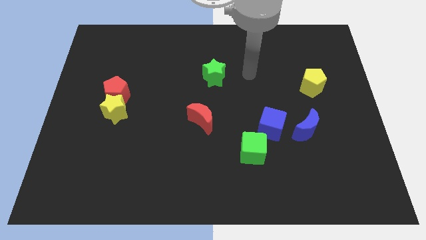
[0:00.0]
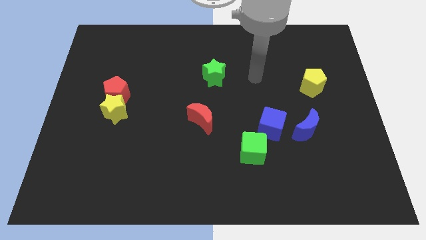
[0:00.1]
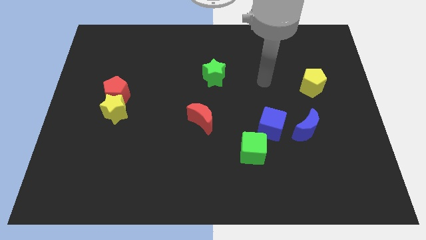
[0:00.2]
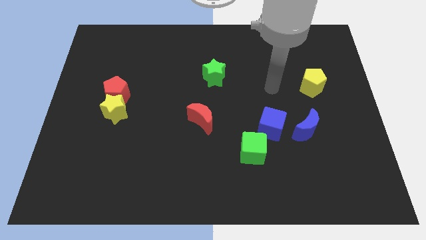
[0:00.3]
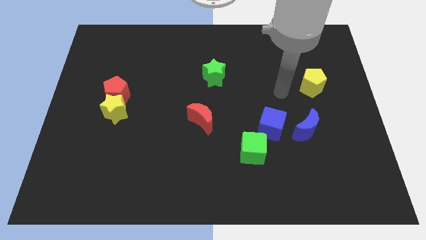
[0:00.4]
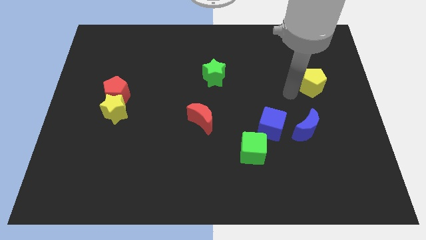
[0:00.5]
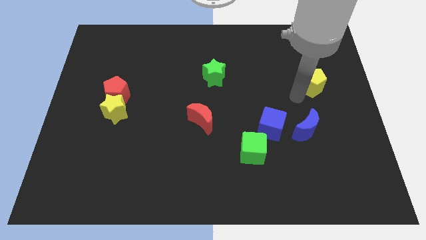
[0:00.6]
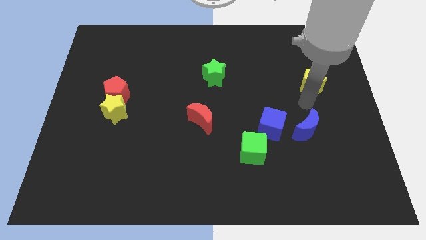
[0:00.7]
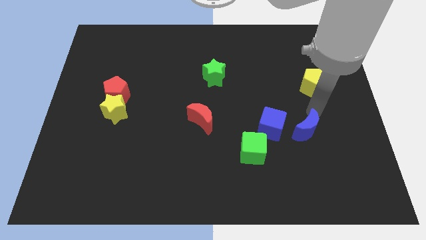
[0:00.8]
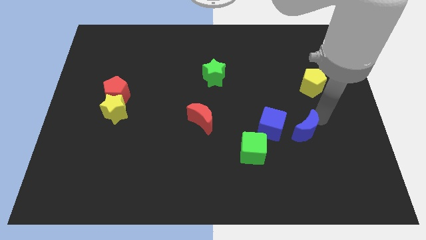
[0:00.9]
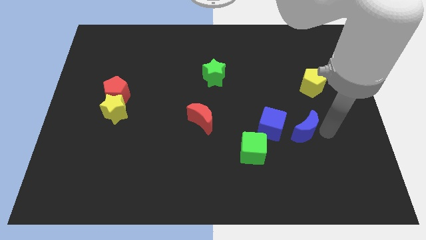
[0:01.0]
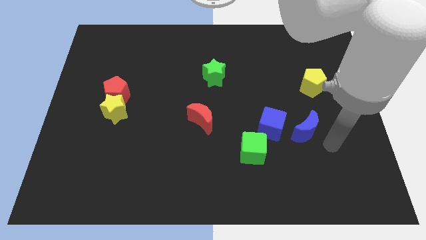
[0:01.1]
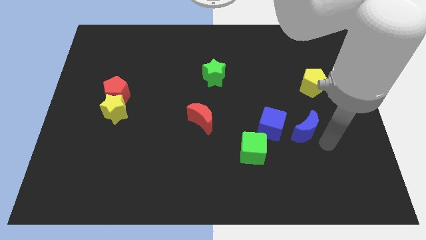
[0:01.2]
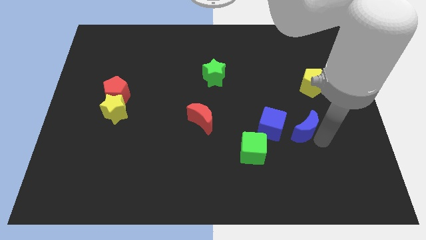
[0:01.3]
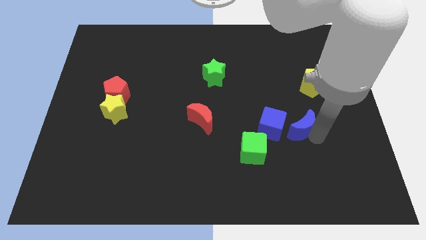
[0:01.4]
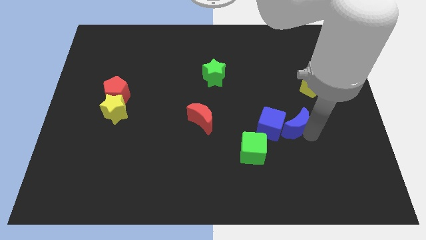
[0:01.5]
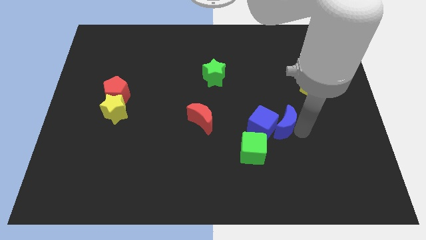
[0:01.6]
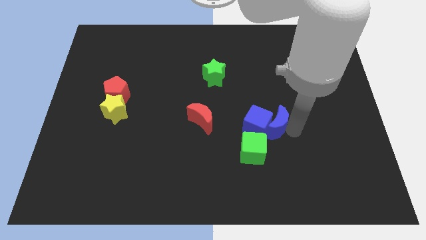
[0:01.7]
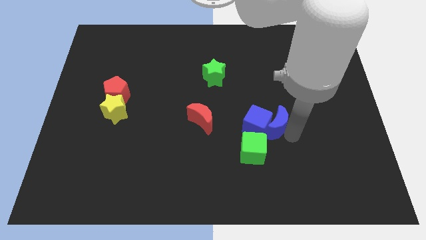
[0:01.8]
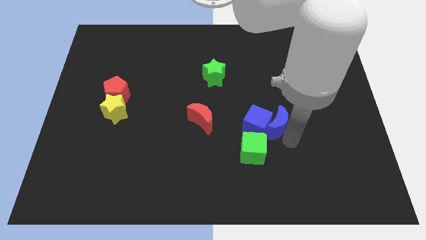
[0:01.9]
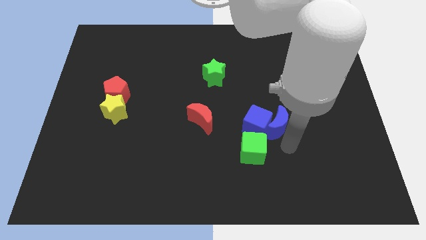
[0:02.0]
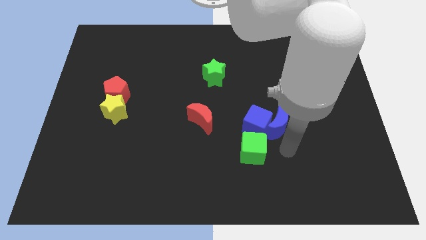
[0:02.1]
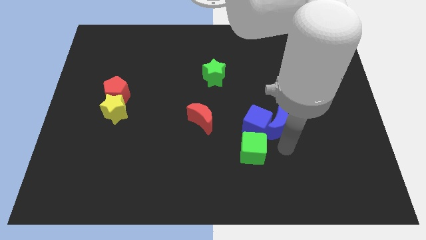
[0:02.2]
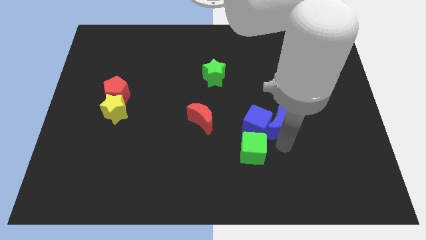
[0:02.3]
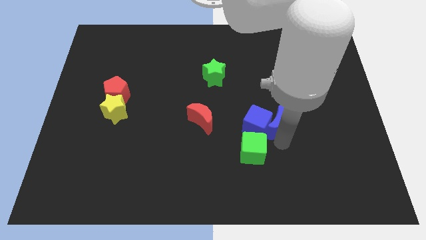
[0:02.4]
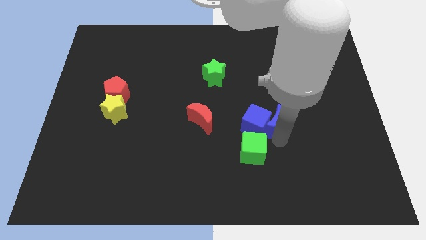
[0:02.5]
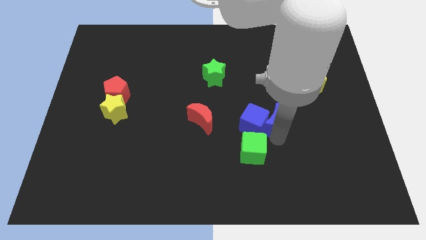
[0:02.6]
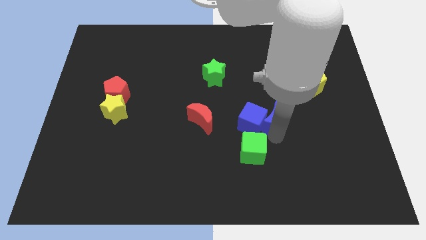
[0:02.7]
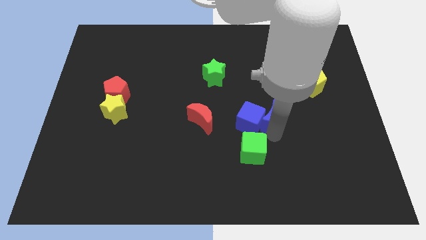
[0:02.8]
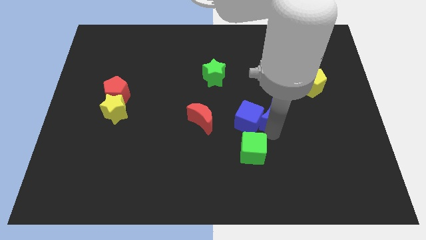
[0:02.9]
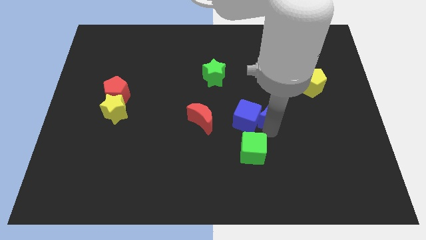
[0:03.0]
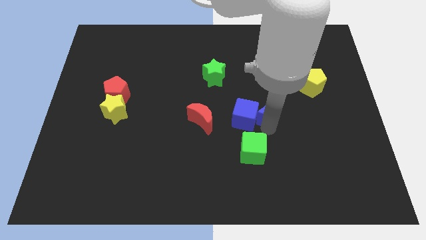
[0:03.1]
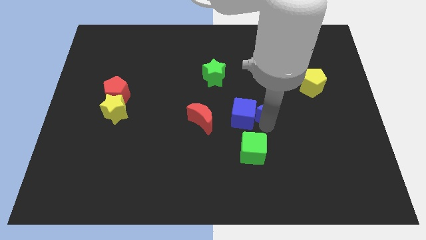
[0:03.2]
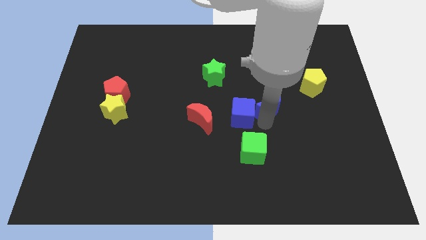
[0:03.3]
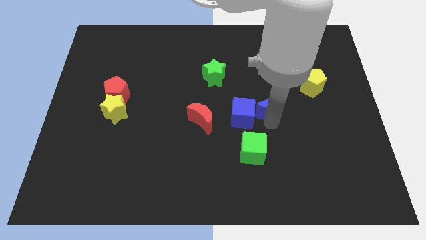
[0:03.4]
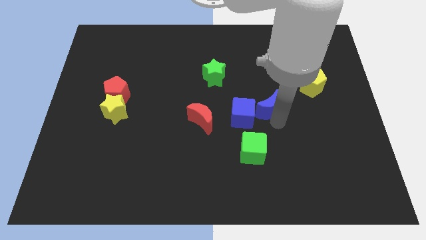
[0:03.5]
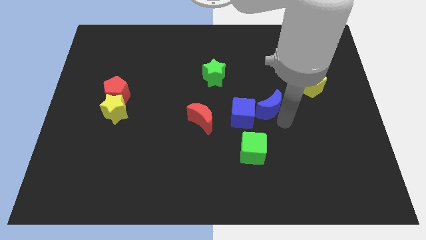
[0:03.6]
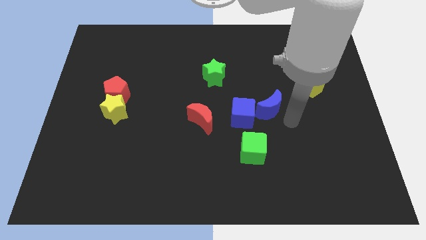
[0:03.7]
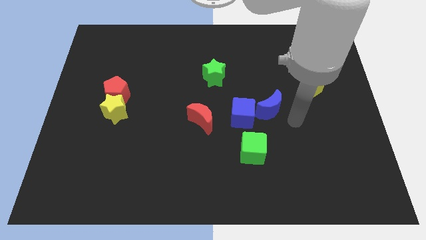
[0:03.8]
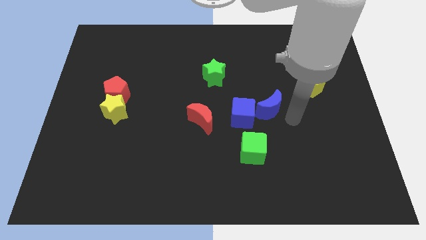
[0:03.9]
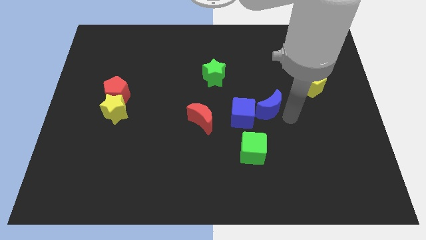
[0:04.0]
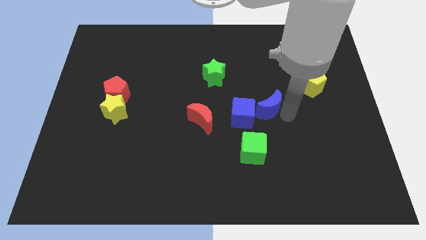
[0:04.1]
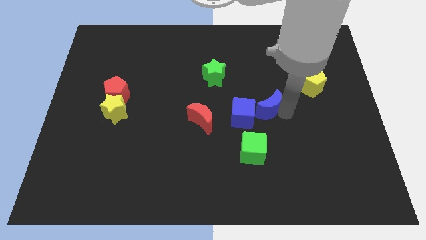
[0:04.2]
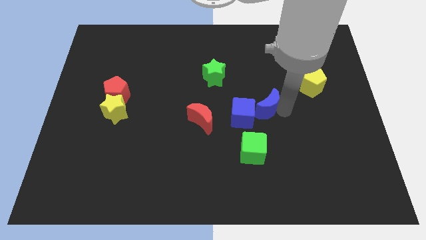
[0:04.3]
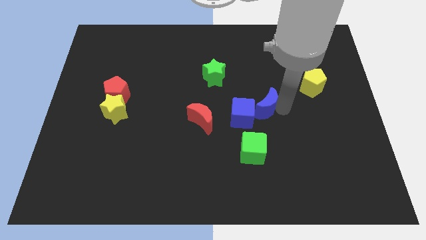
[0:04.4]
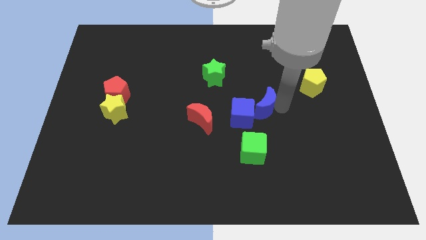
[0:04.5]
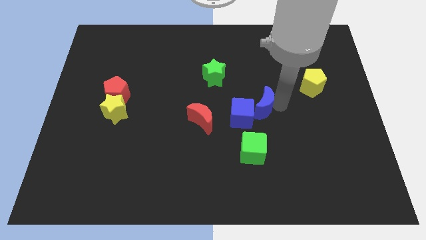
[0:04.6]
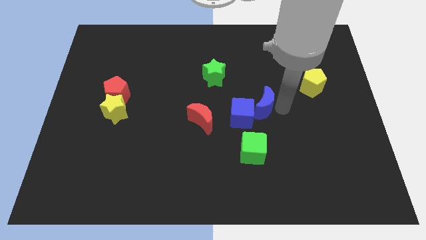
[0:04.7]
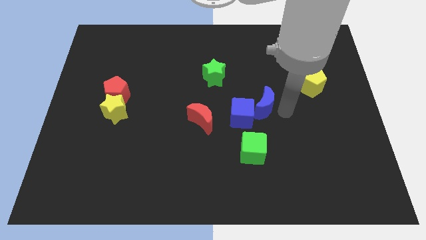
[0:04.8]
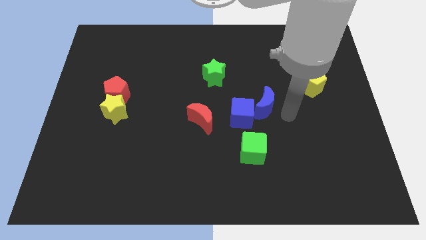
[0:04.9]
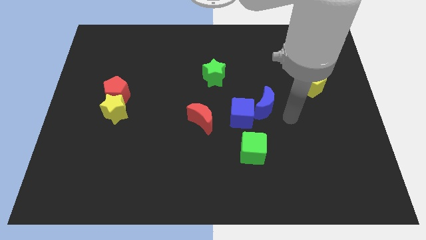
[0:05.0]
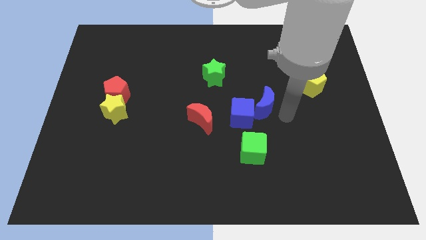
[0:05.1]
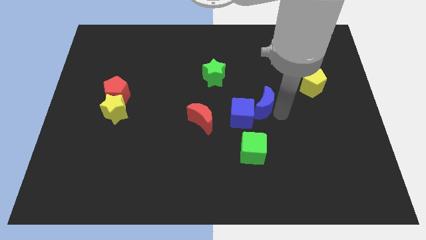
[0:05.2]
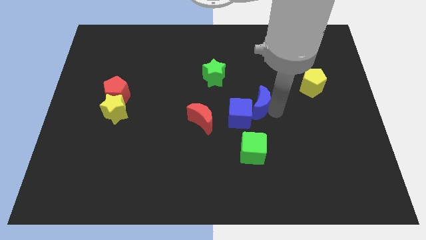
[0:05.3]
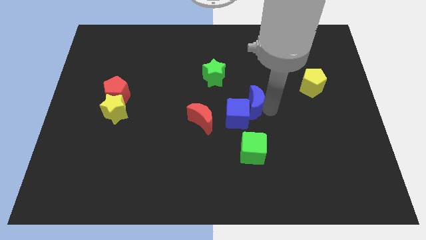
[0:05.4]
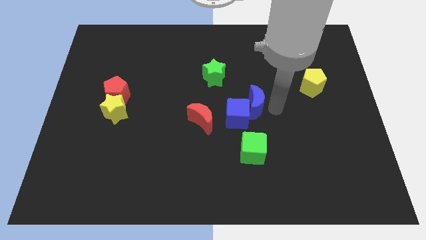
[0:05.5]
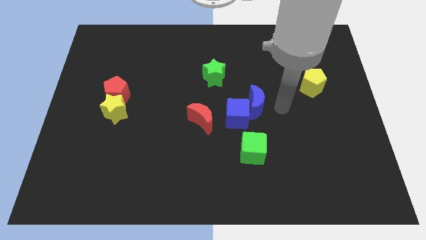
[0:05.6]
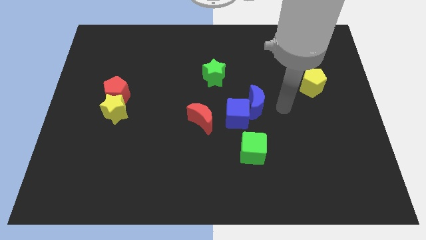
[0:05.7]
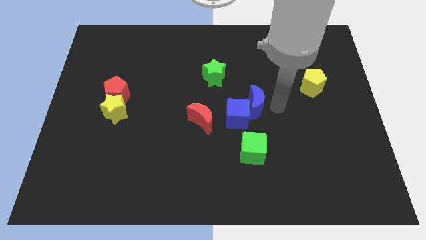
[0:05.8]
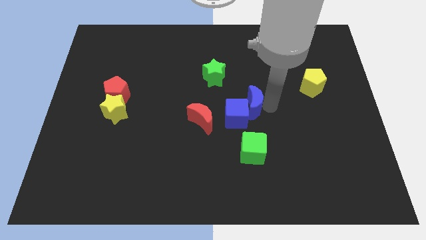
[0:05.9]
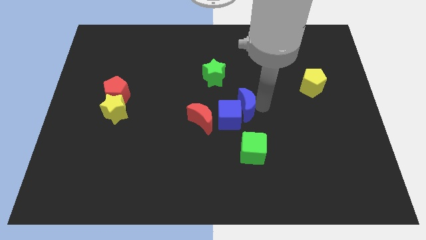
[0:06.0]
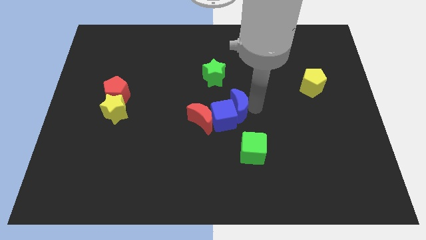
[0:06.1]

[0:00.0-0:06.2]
move the blue moon diagonally up and to the right of the red moon

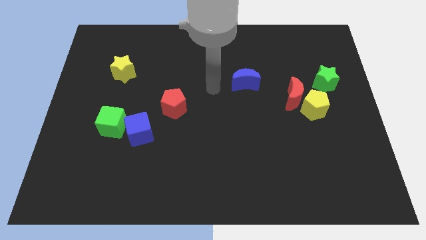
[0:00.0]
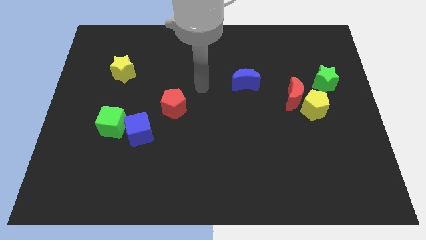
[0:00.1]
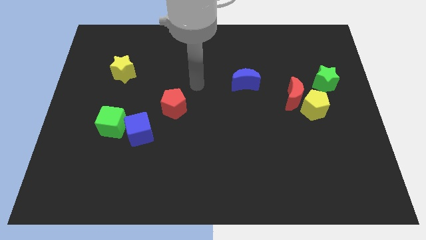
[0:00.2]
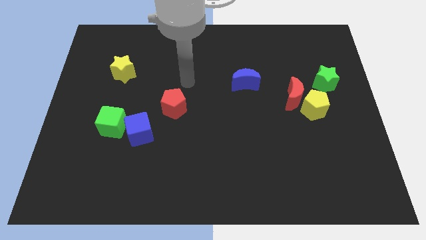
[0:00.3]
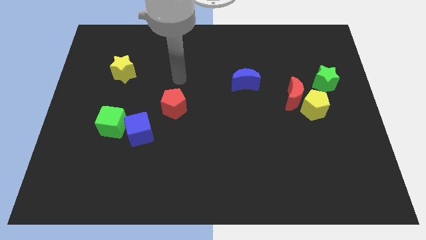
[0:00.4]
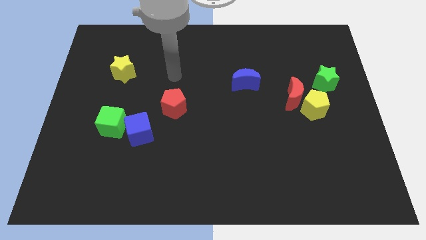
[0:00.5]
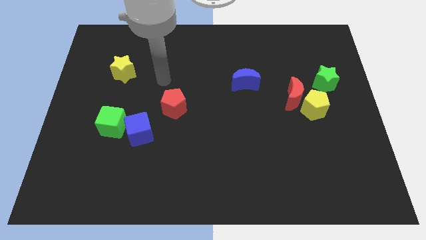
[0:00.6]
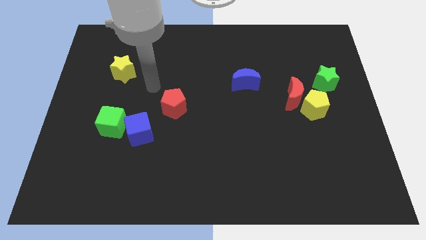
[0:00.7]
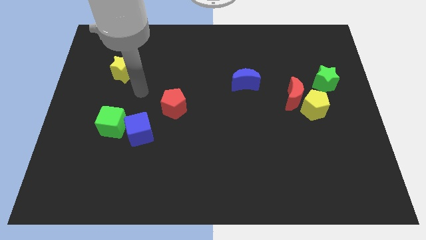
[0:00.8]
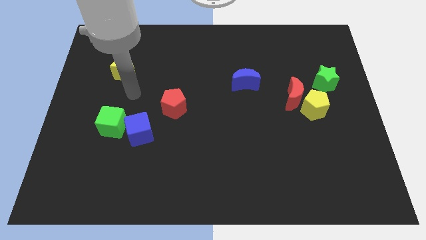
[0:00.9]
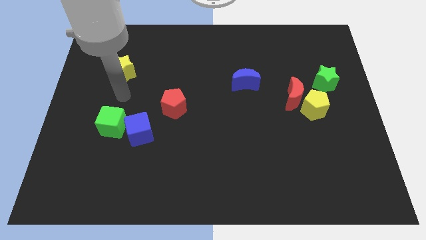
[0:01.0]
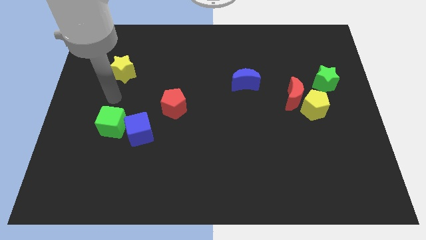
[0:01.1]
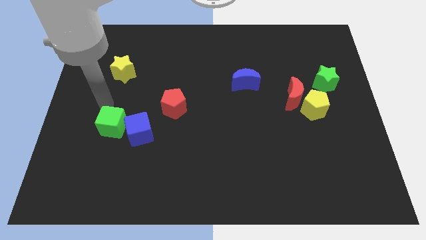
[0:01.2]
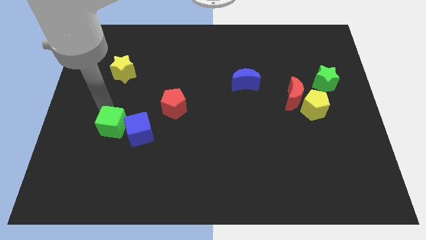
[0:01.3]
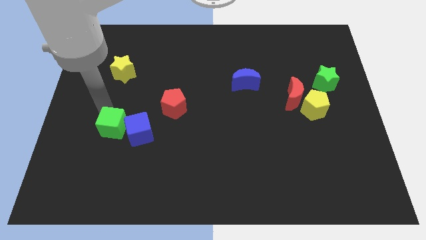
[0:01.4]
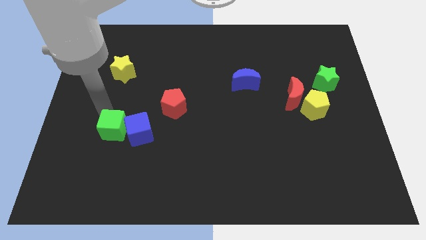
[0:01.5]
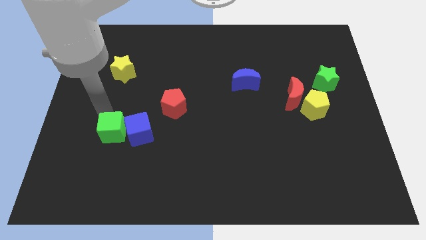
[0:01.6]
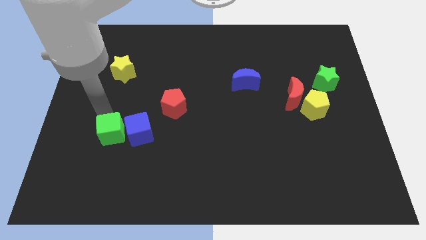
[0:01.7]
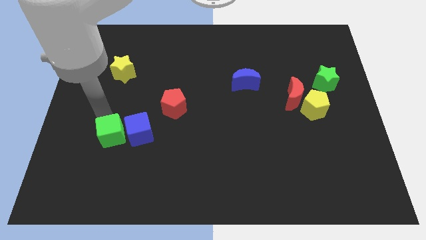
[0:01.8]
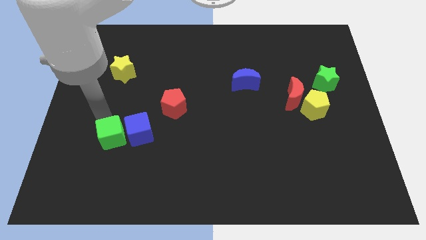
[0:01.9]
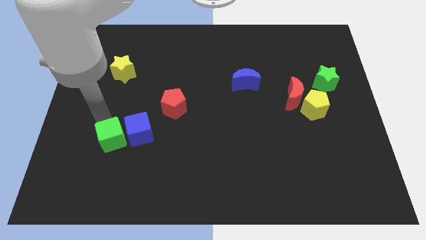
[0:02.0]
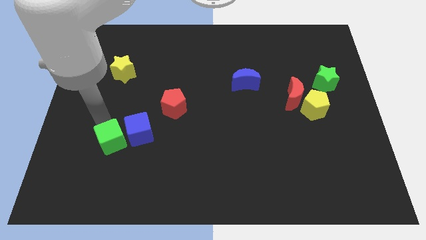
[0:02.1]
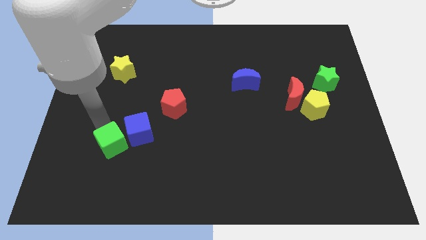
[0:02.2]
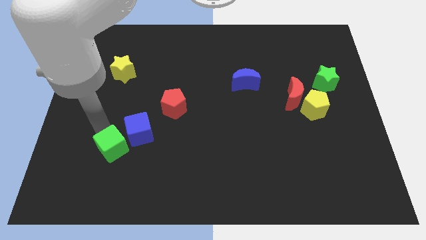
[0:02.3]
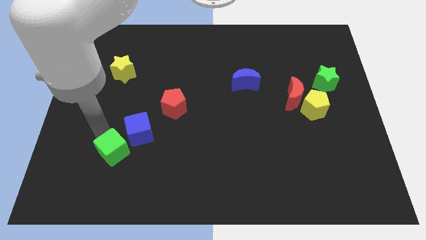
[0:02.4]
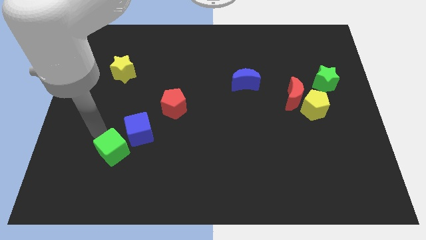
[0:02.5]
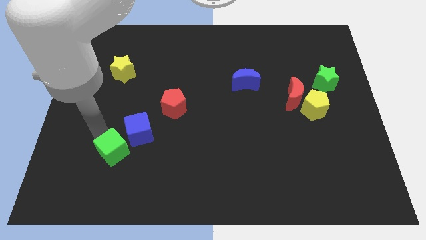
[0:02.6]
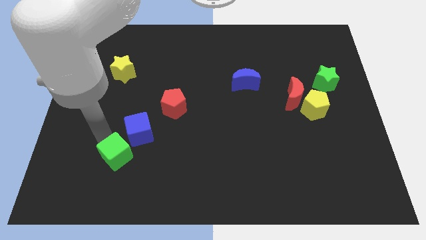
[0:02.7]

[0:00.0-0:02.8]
put the green cube to the bottom side of the blue cube
